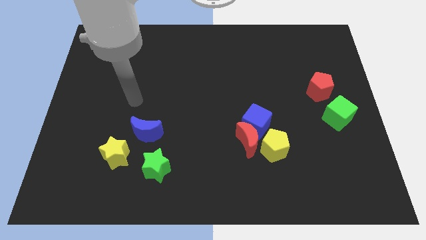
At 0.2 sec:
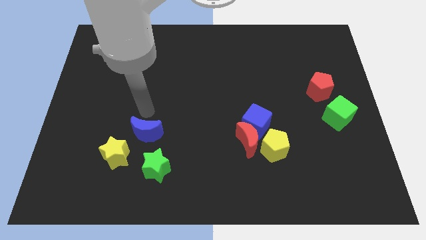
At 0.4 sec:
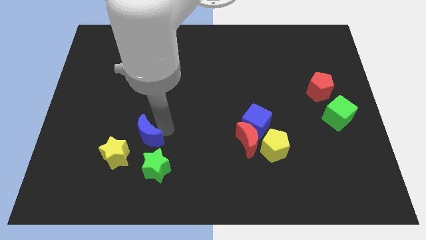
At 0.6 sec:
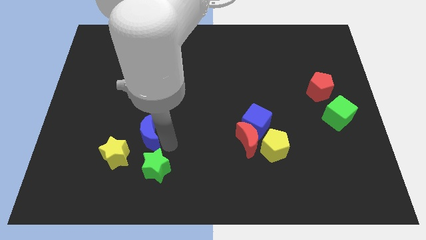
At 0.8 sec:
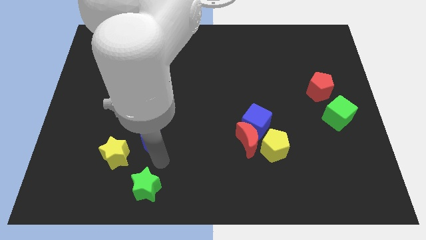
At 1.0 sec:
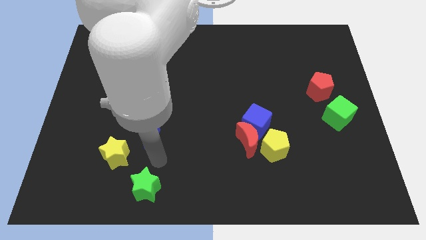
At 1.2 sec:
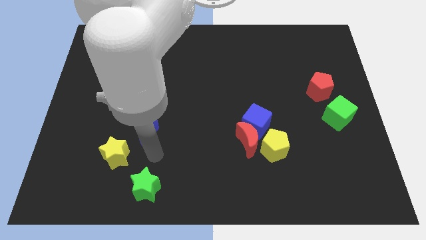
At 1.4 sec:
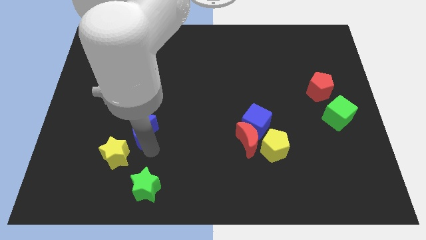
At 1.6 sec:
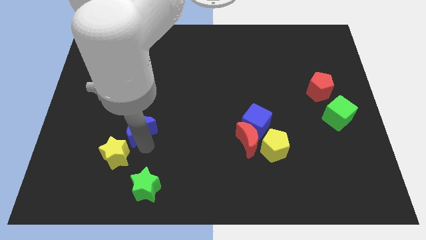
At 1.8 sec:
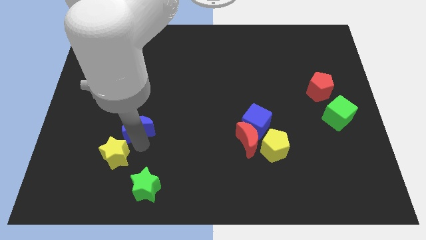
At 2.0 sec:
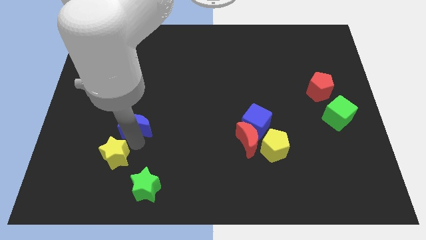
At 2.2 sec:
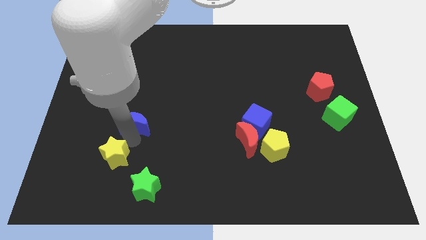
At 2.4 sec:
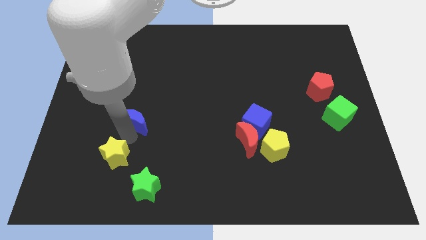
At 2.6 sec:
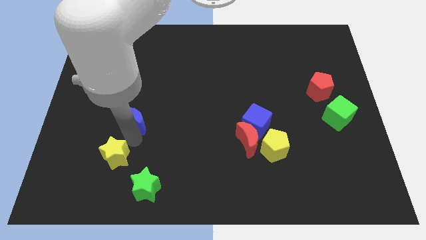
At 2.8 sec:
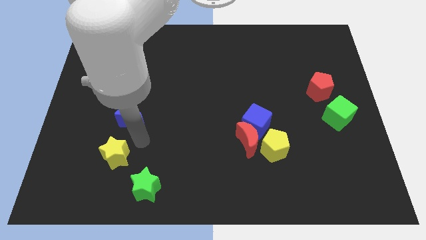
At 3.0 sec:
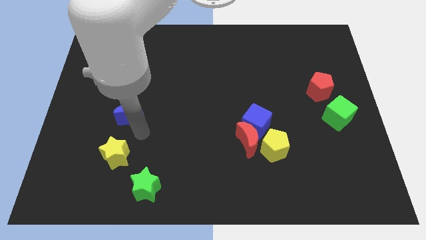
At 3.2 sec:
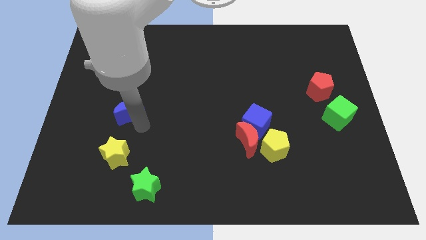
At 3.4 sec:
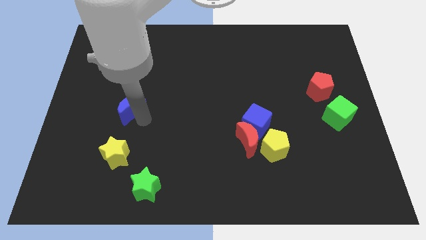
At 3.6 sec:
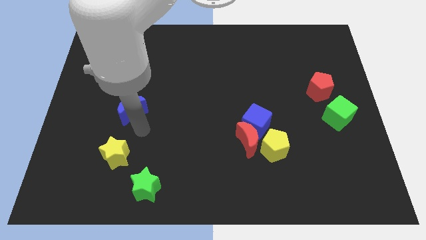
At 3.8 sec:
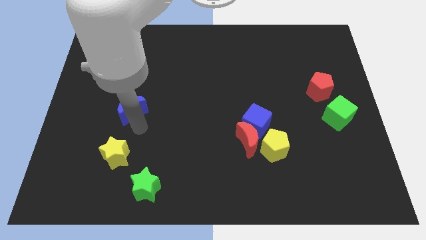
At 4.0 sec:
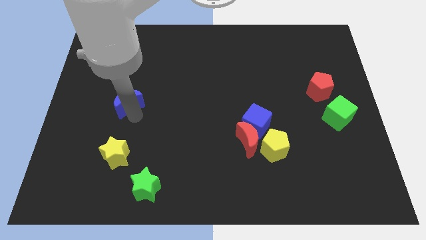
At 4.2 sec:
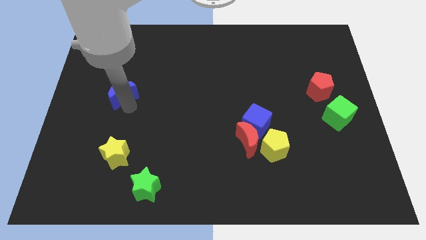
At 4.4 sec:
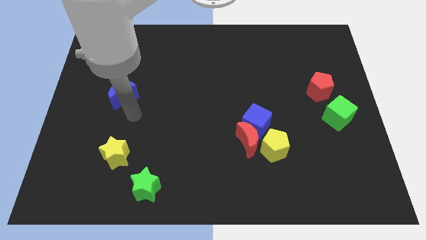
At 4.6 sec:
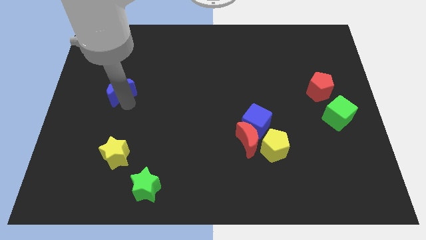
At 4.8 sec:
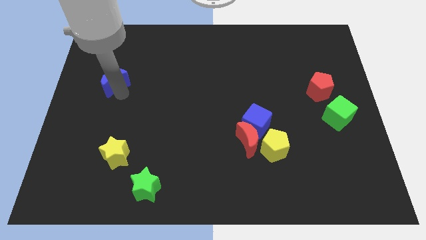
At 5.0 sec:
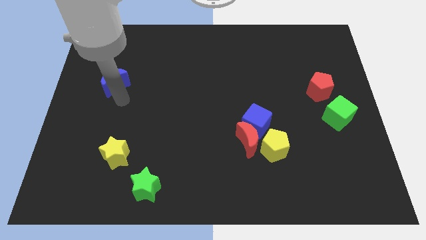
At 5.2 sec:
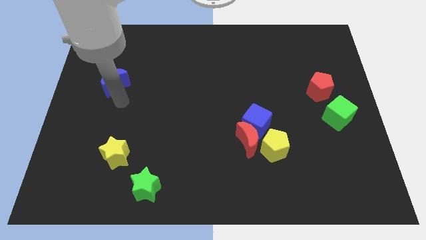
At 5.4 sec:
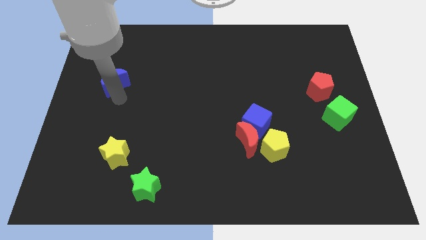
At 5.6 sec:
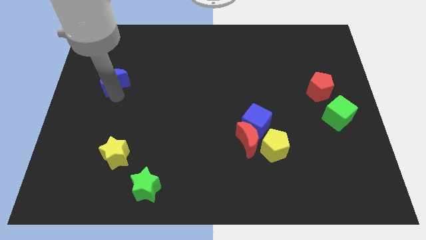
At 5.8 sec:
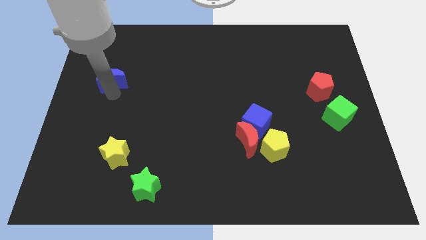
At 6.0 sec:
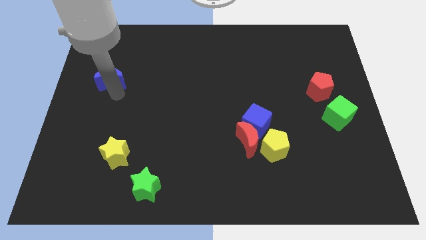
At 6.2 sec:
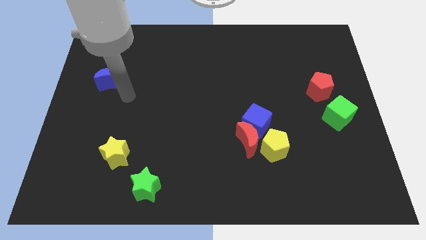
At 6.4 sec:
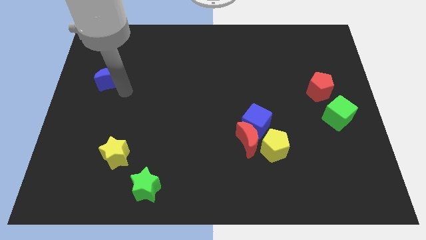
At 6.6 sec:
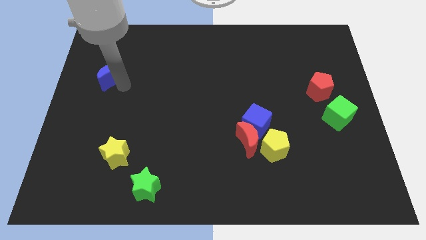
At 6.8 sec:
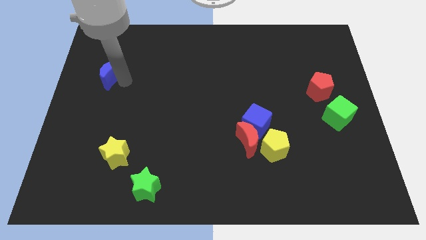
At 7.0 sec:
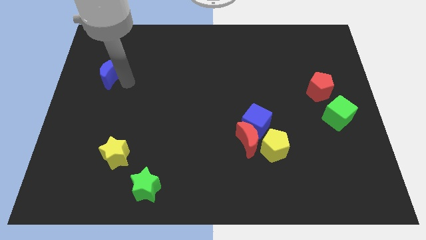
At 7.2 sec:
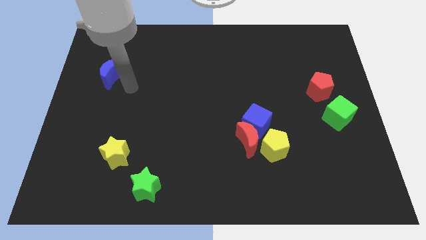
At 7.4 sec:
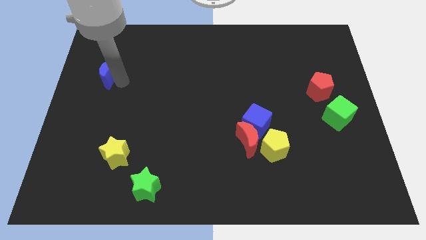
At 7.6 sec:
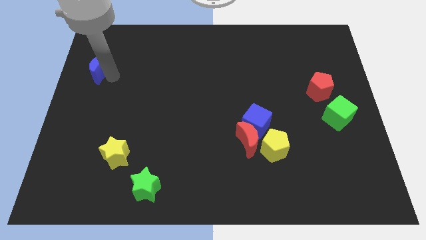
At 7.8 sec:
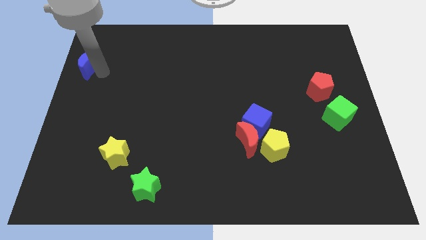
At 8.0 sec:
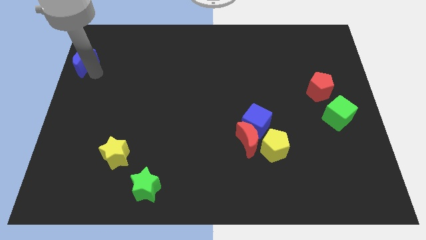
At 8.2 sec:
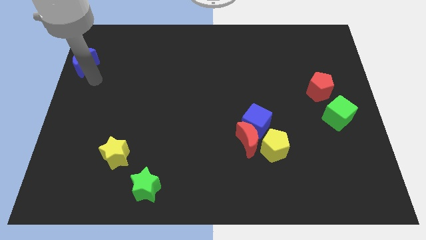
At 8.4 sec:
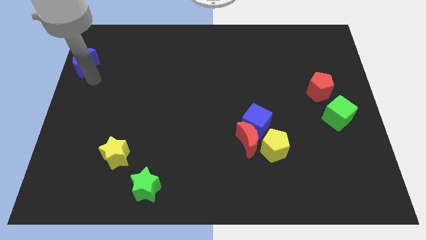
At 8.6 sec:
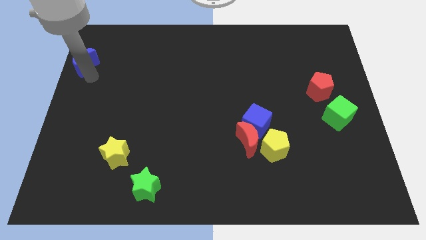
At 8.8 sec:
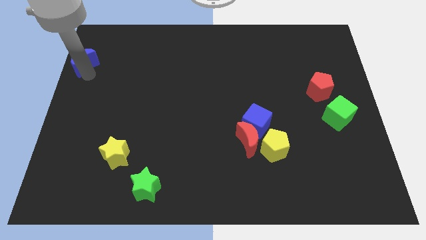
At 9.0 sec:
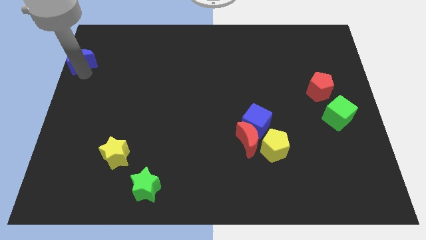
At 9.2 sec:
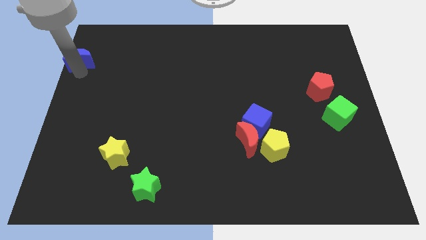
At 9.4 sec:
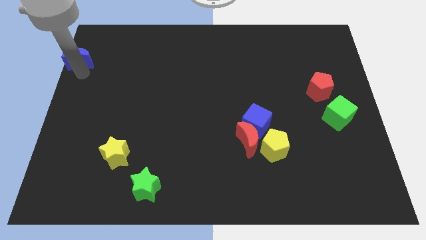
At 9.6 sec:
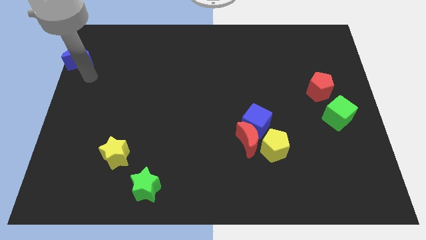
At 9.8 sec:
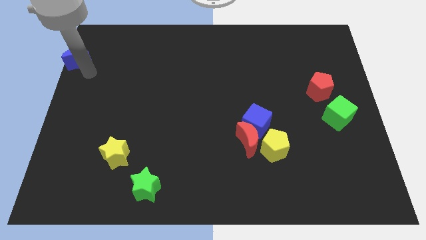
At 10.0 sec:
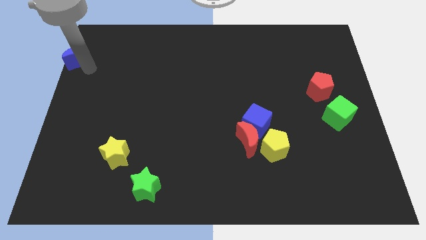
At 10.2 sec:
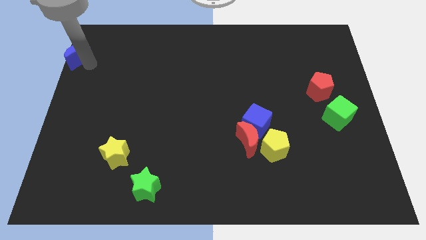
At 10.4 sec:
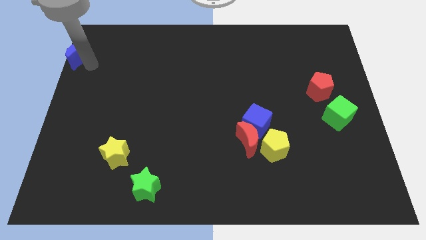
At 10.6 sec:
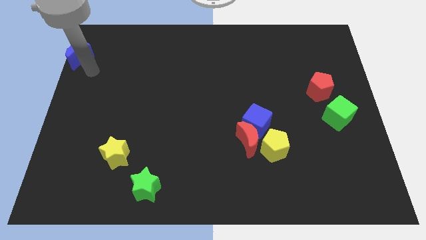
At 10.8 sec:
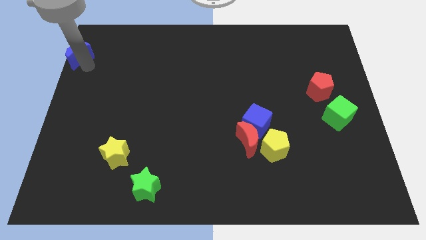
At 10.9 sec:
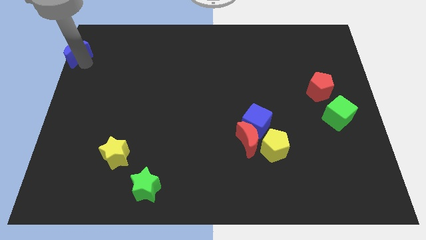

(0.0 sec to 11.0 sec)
move the blue moon to the top left of the board

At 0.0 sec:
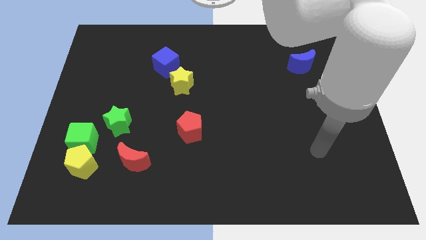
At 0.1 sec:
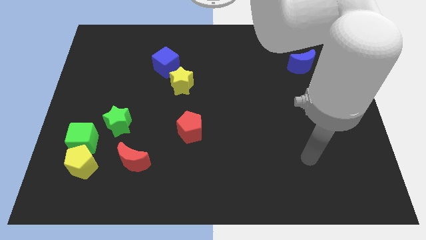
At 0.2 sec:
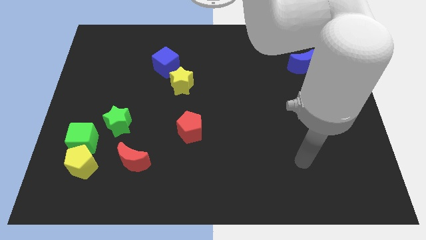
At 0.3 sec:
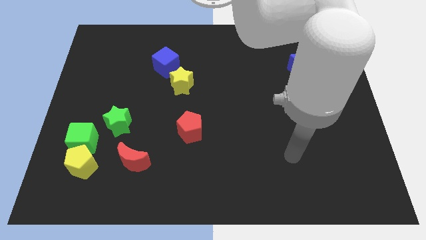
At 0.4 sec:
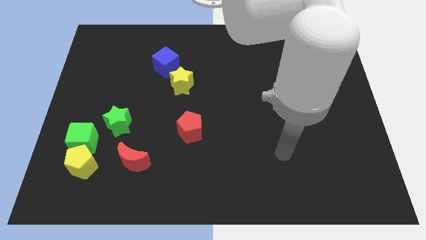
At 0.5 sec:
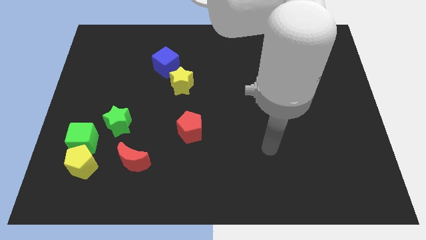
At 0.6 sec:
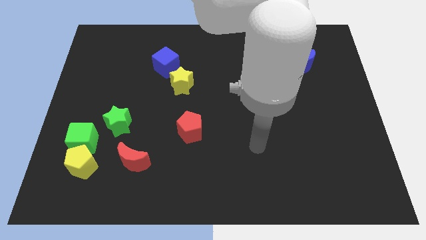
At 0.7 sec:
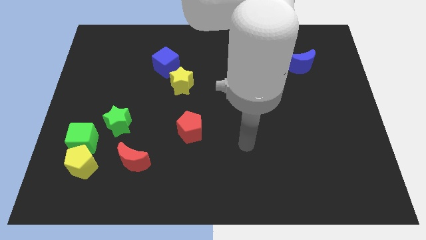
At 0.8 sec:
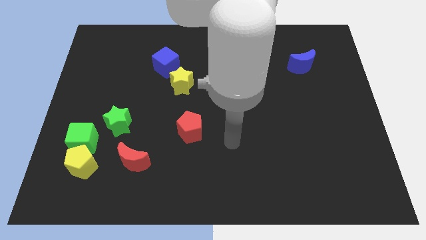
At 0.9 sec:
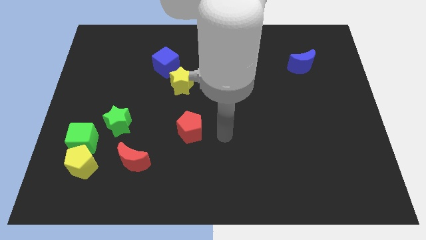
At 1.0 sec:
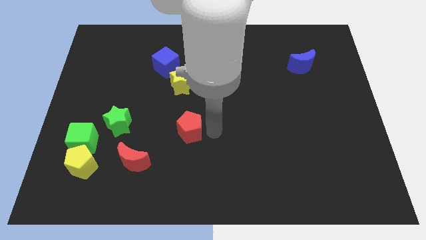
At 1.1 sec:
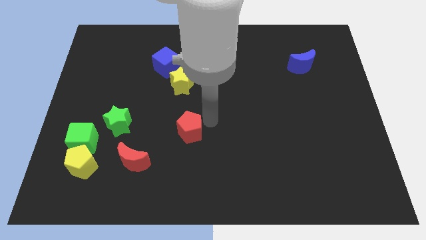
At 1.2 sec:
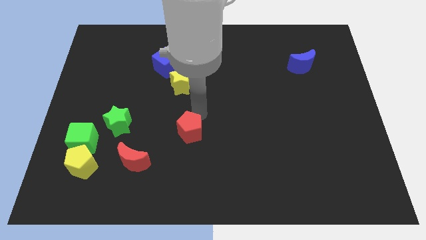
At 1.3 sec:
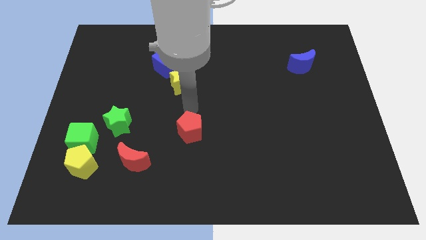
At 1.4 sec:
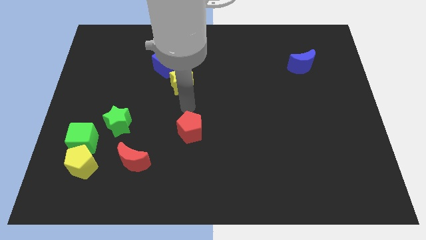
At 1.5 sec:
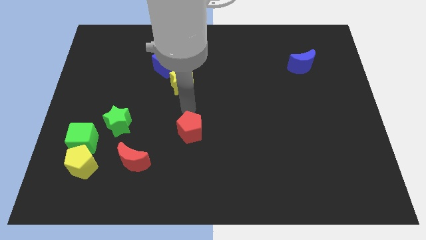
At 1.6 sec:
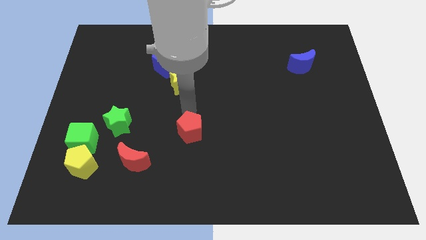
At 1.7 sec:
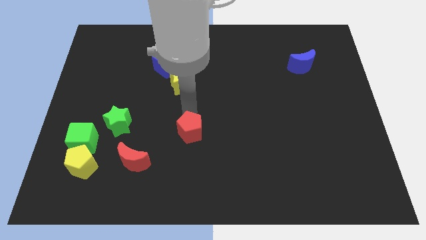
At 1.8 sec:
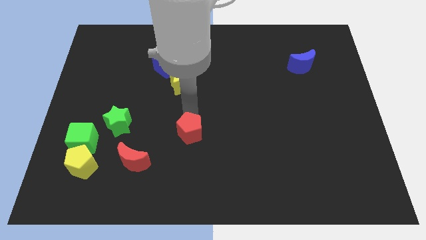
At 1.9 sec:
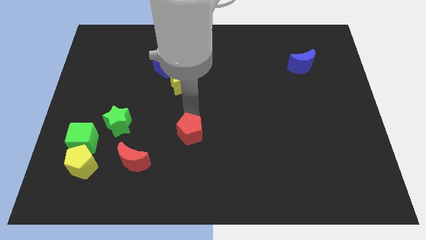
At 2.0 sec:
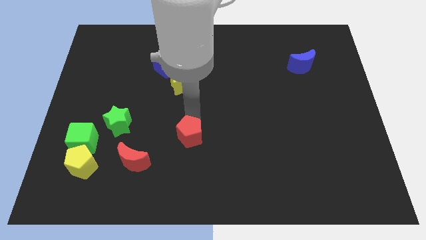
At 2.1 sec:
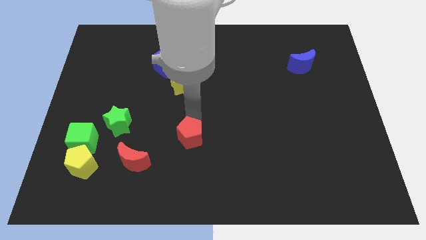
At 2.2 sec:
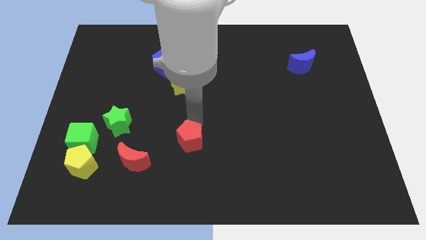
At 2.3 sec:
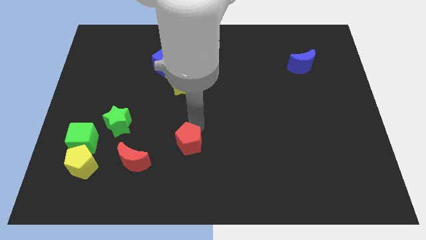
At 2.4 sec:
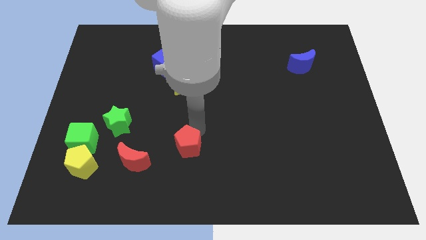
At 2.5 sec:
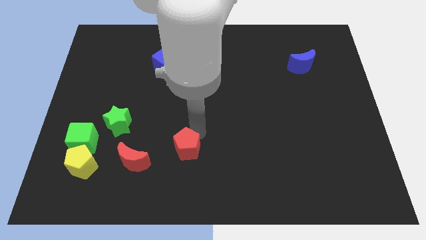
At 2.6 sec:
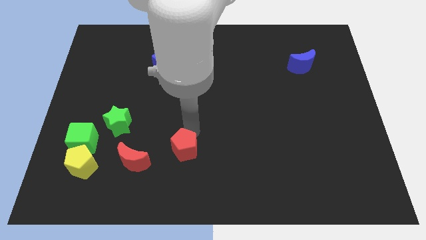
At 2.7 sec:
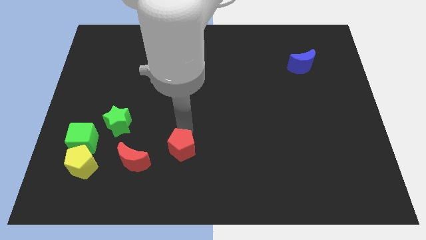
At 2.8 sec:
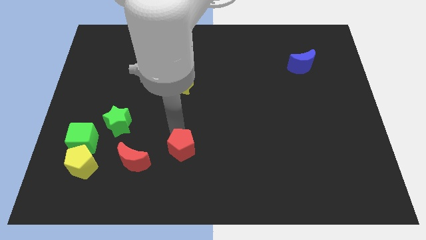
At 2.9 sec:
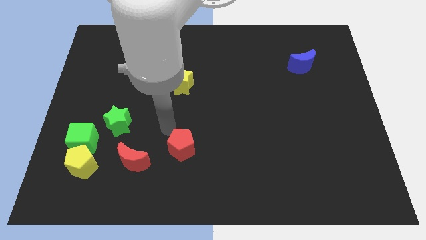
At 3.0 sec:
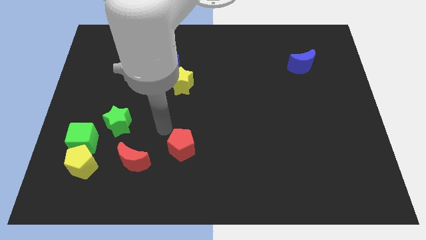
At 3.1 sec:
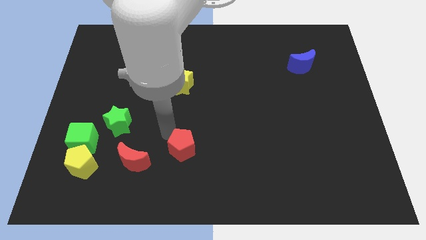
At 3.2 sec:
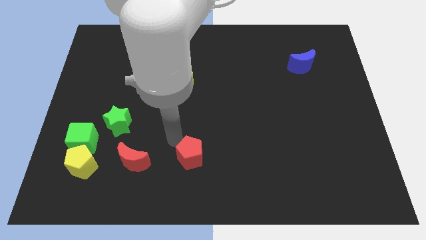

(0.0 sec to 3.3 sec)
put the red pentagon to the bottom side
